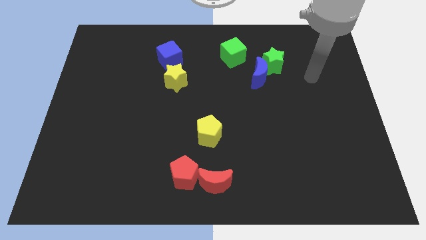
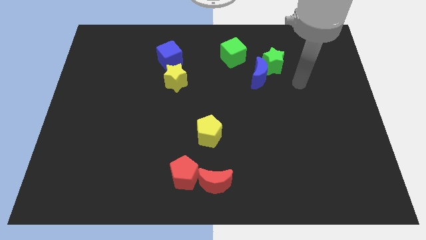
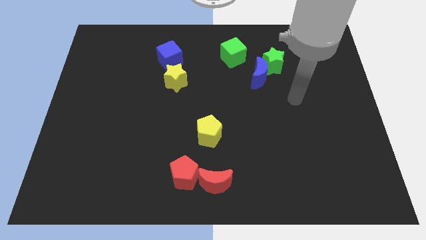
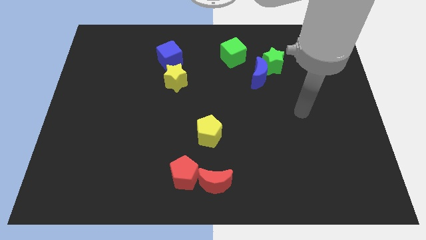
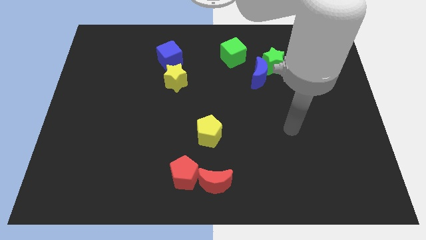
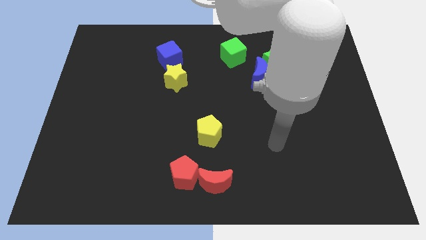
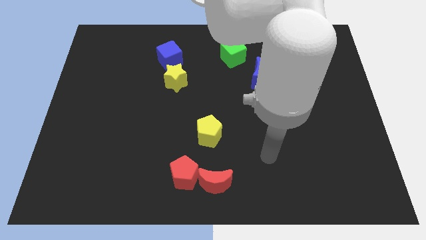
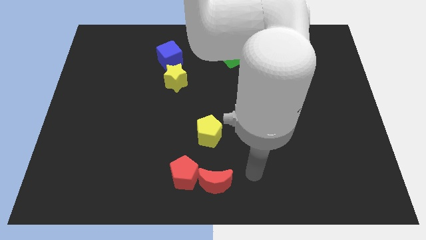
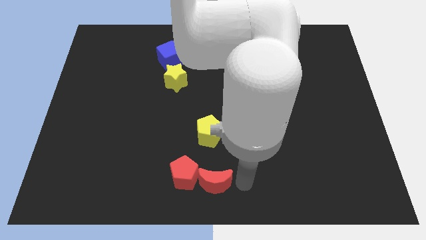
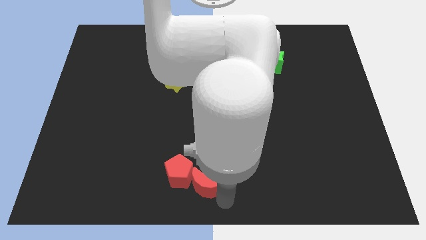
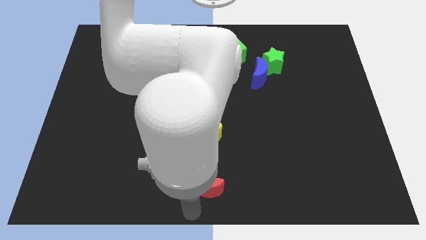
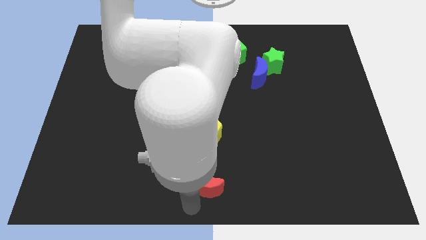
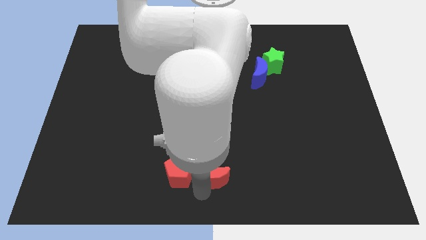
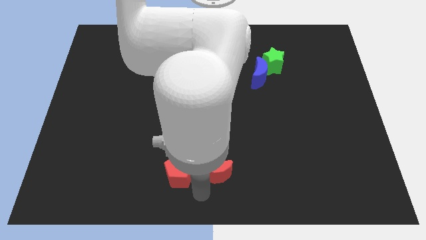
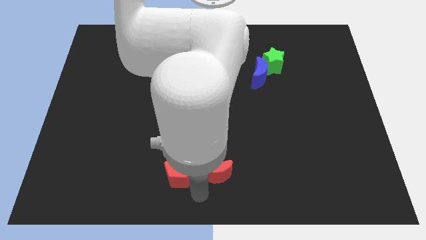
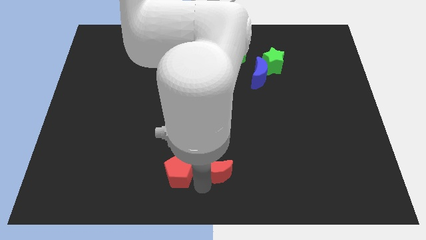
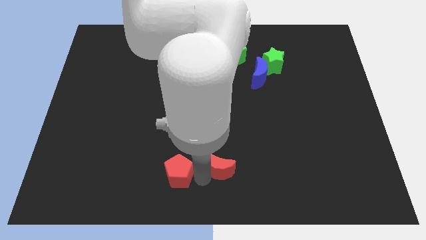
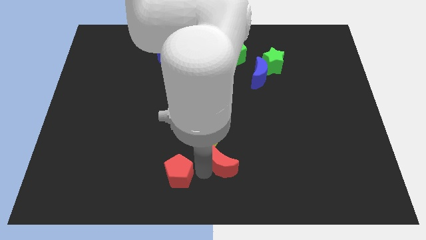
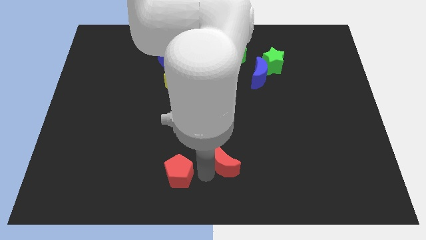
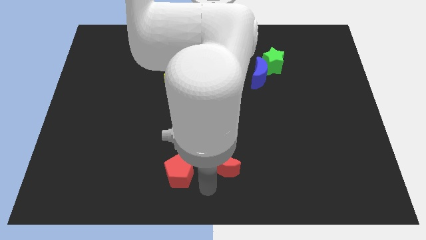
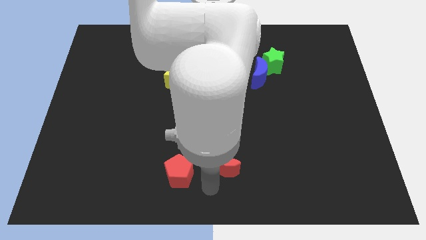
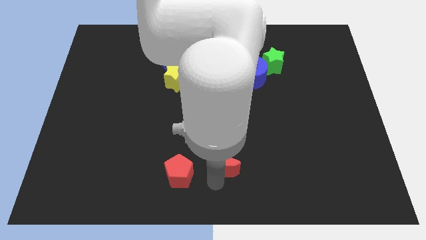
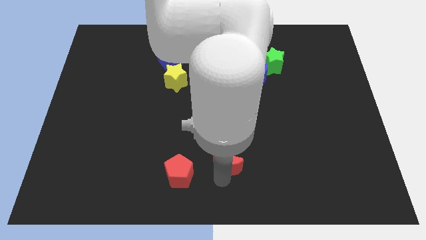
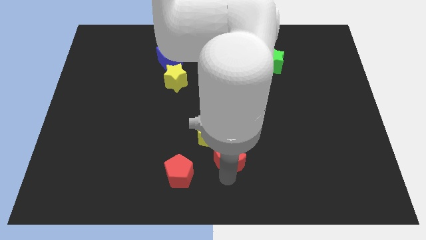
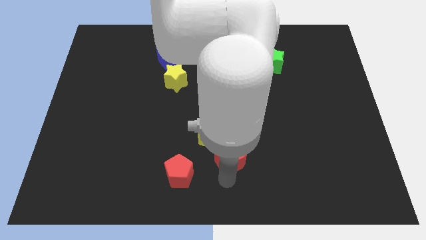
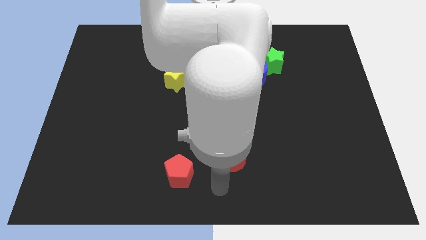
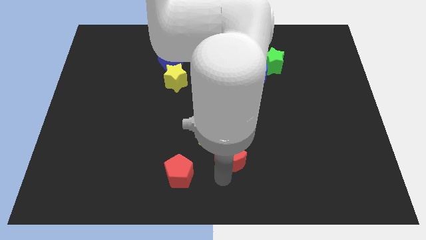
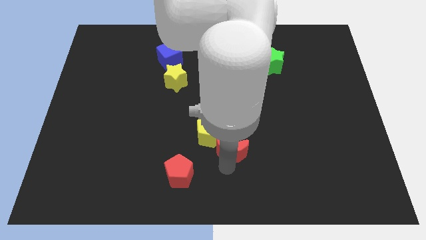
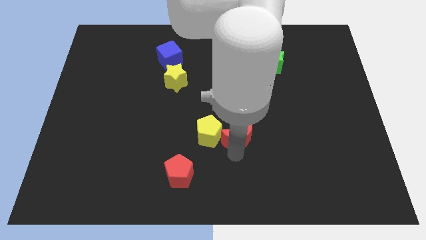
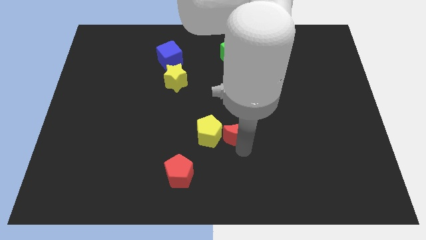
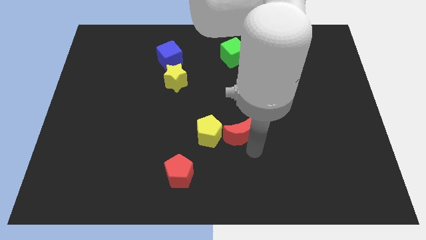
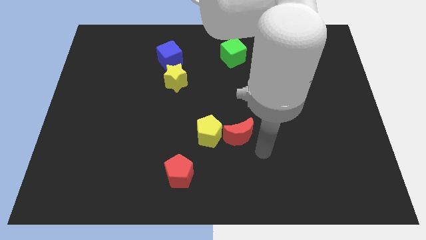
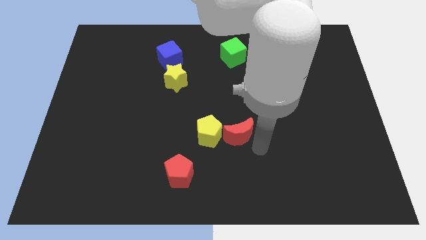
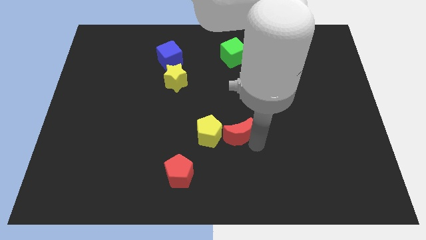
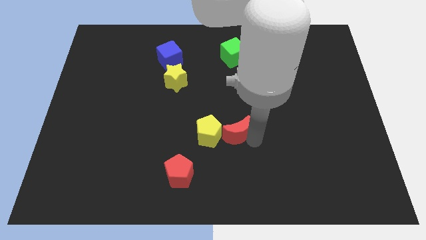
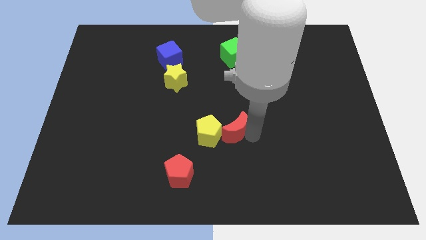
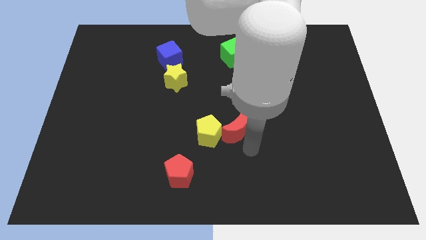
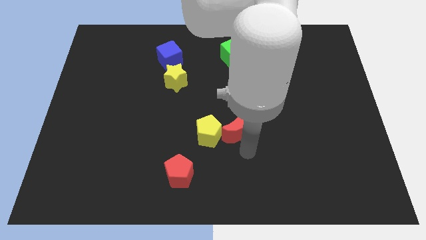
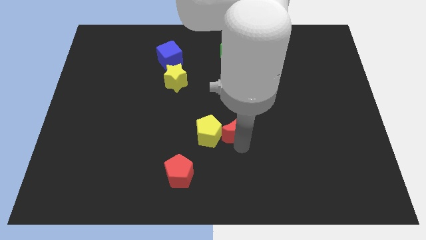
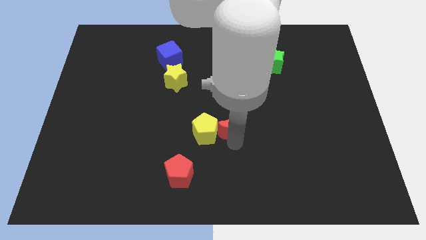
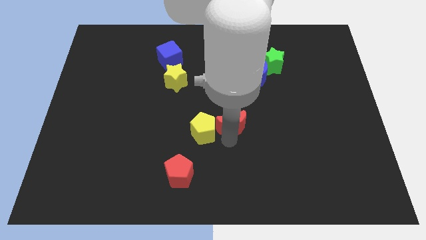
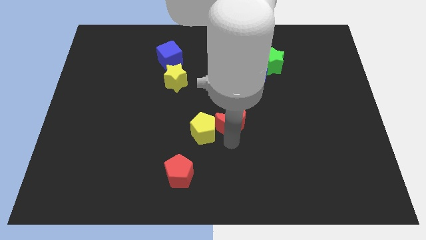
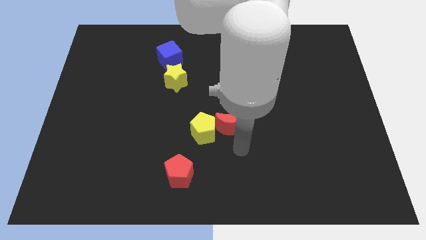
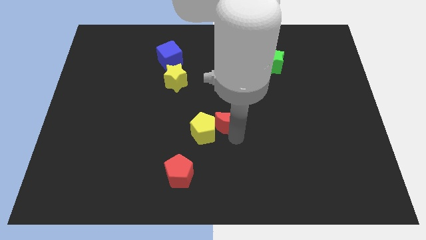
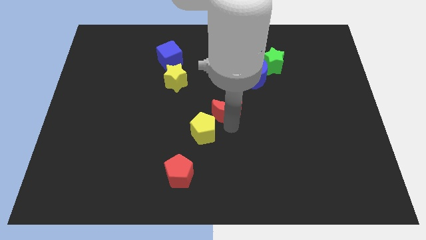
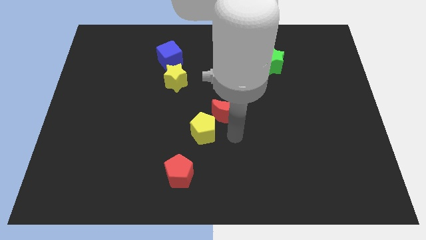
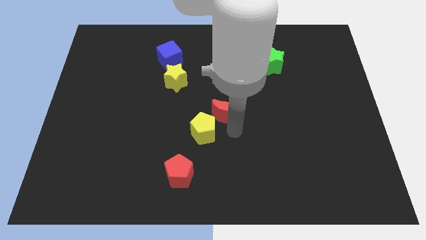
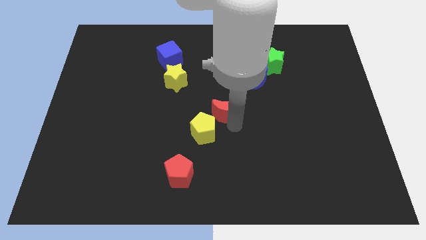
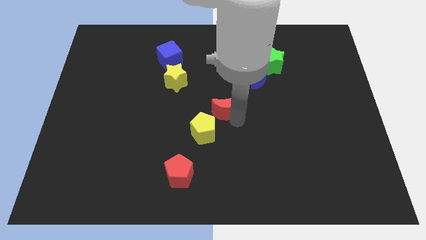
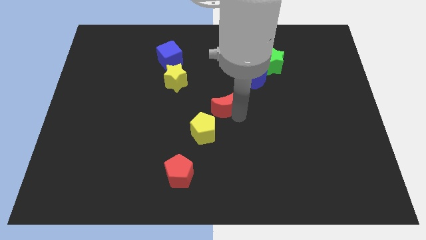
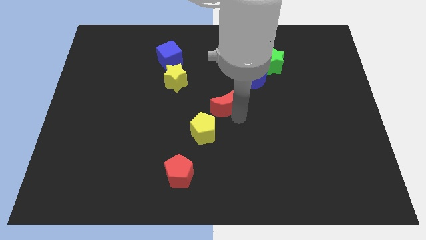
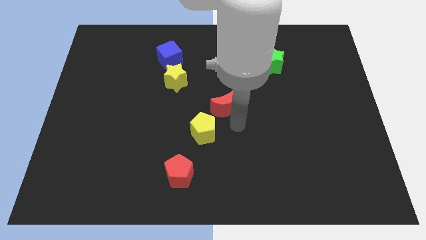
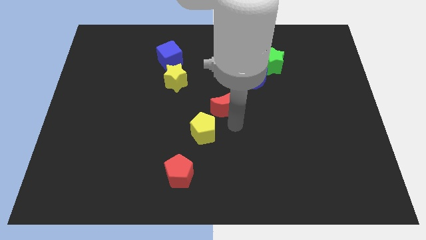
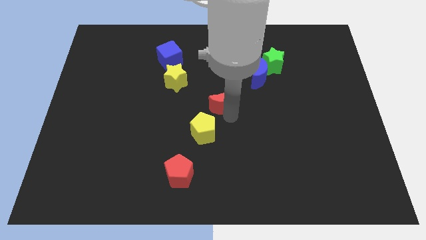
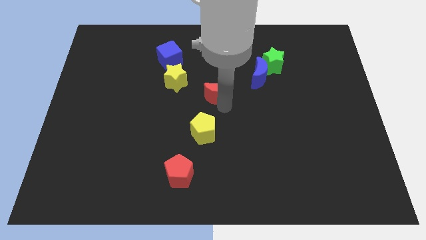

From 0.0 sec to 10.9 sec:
move the red moon to the right of the yellow star
